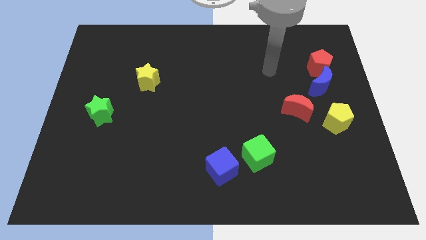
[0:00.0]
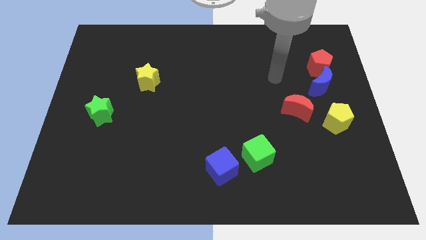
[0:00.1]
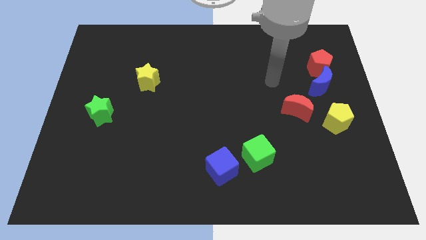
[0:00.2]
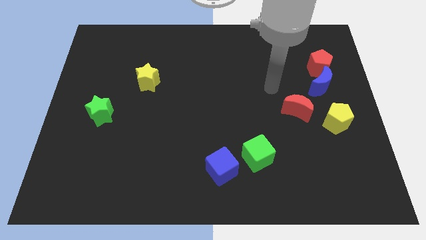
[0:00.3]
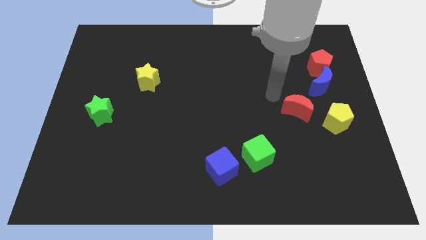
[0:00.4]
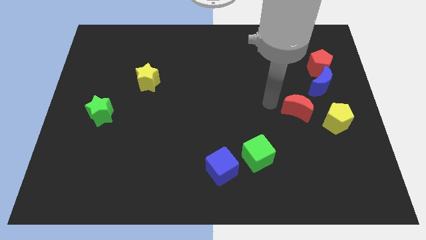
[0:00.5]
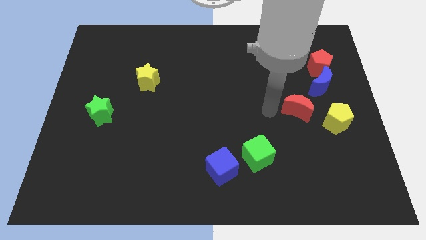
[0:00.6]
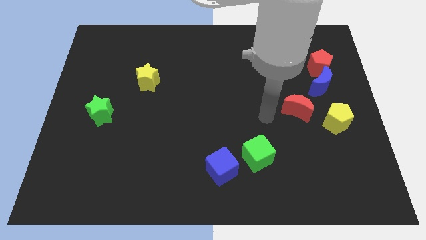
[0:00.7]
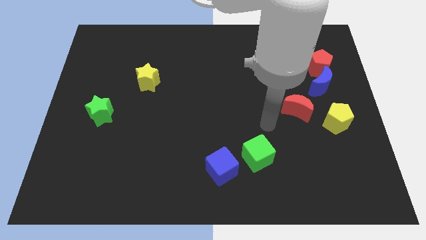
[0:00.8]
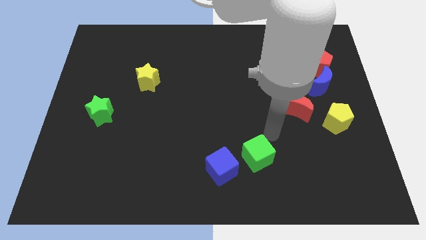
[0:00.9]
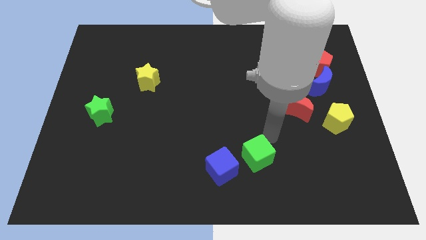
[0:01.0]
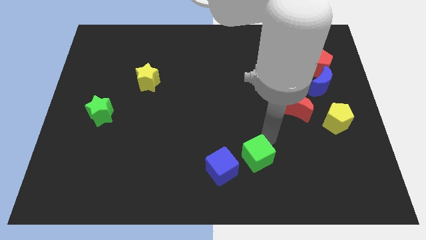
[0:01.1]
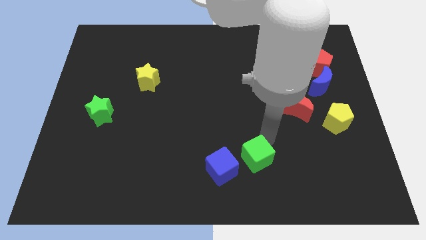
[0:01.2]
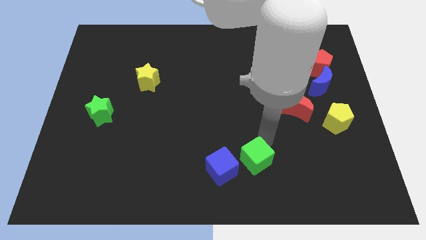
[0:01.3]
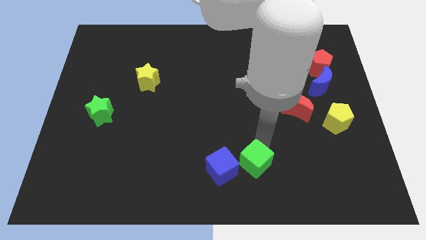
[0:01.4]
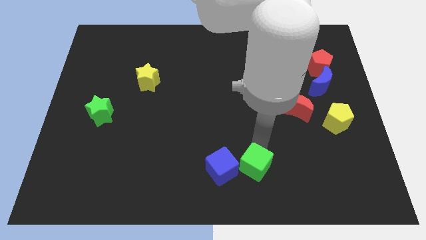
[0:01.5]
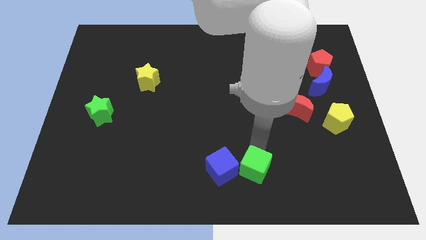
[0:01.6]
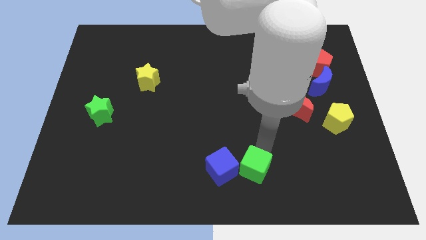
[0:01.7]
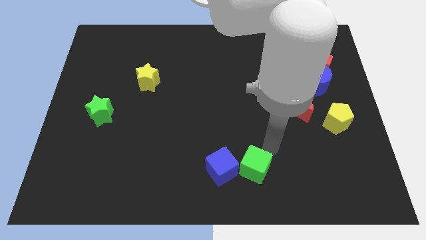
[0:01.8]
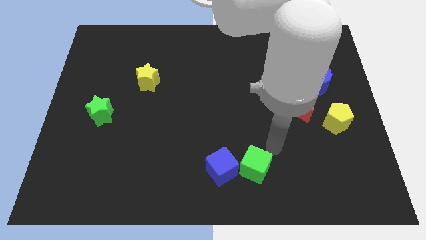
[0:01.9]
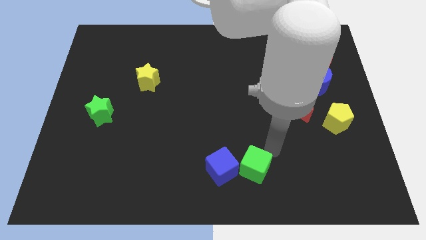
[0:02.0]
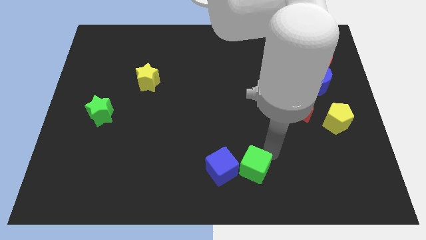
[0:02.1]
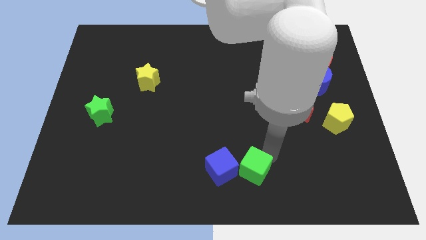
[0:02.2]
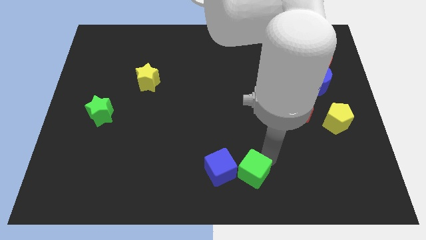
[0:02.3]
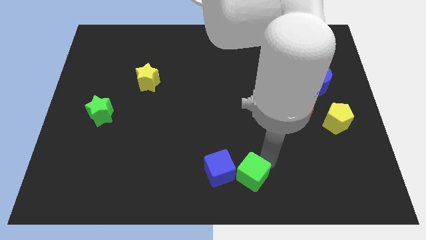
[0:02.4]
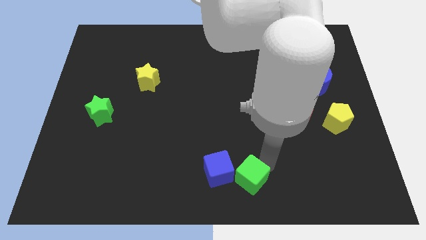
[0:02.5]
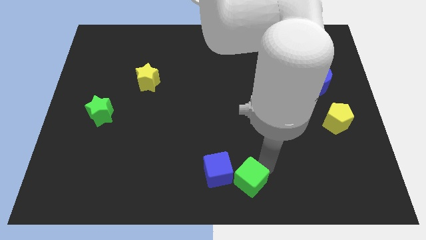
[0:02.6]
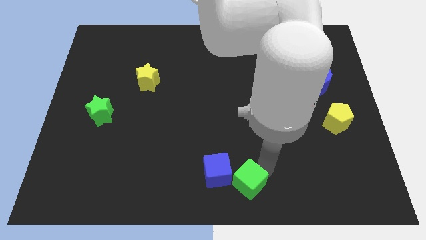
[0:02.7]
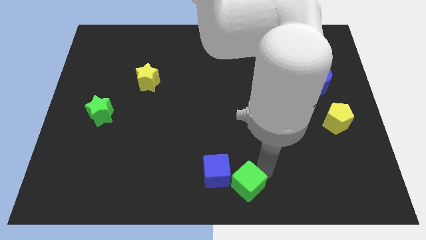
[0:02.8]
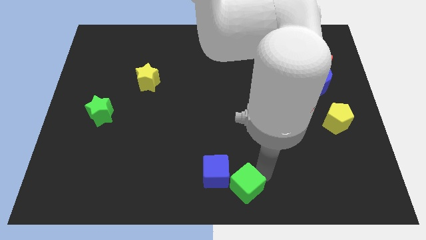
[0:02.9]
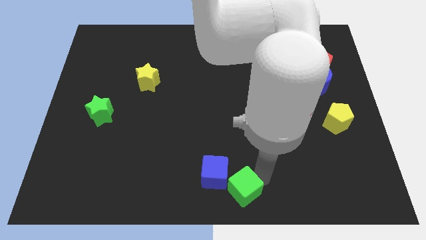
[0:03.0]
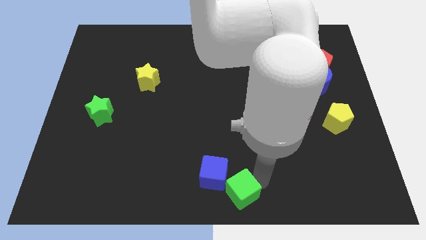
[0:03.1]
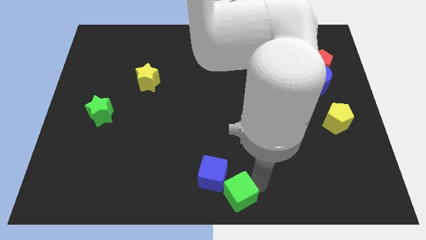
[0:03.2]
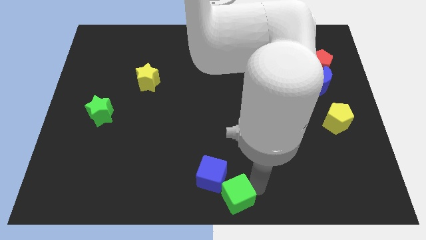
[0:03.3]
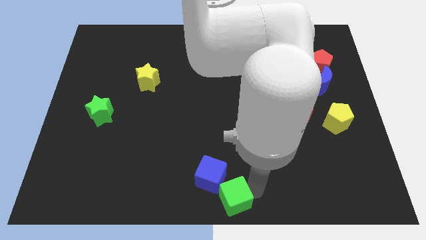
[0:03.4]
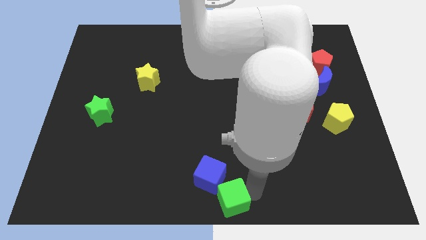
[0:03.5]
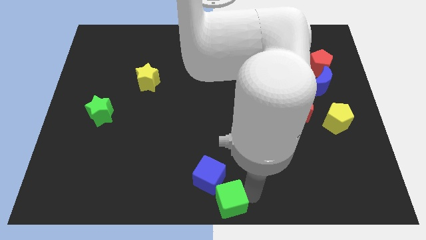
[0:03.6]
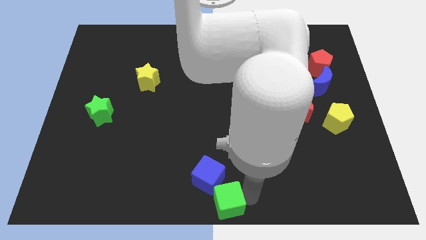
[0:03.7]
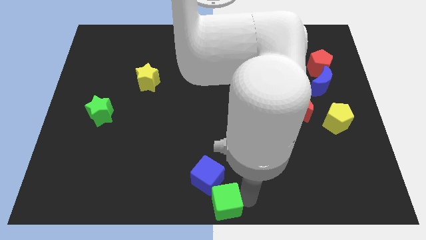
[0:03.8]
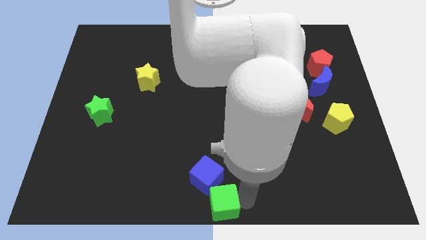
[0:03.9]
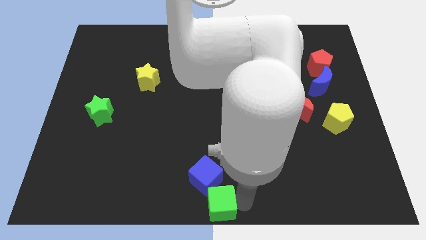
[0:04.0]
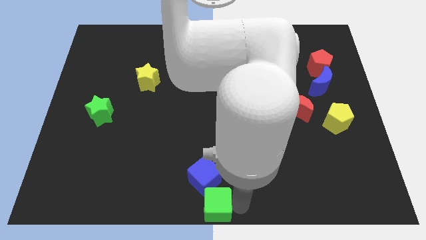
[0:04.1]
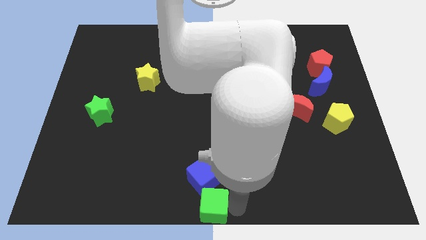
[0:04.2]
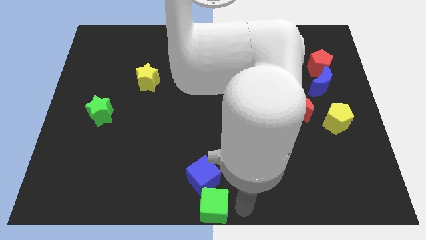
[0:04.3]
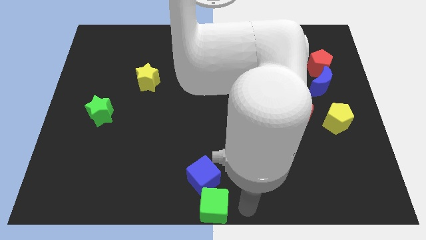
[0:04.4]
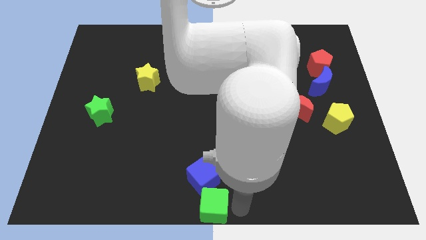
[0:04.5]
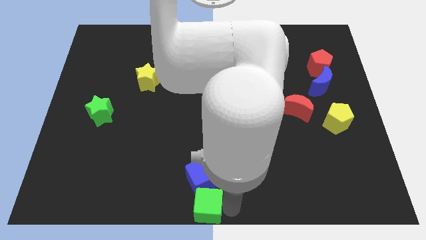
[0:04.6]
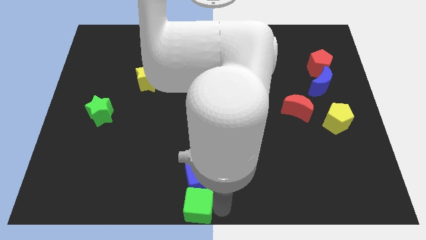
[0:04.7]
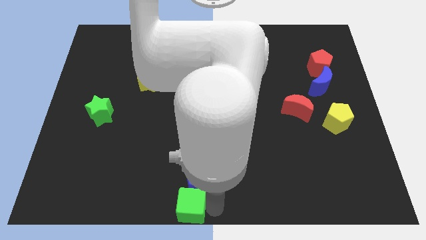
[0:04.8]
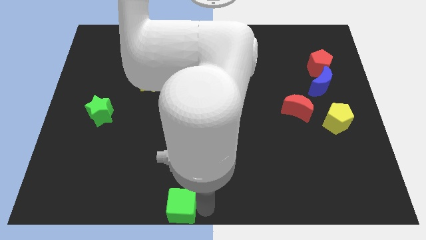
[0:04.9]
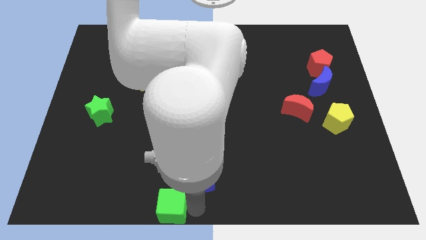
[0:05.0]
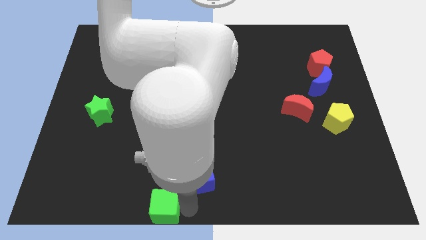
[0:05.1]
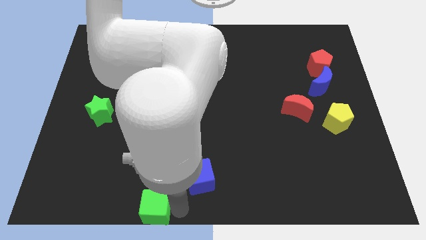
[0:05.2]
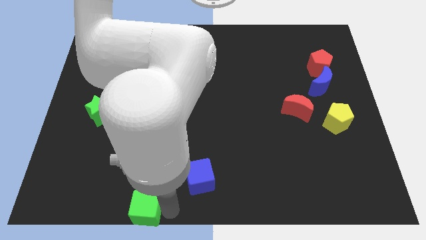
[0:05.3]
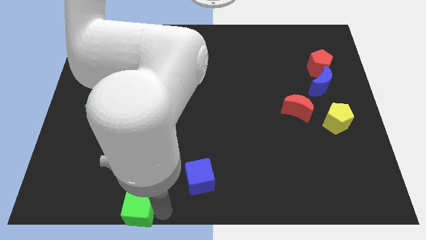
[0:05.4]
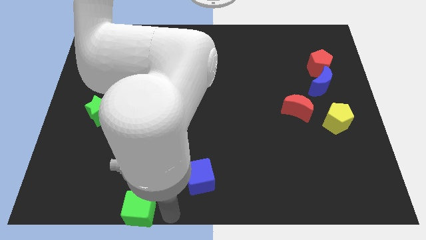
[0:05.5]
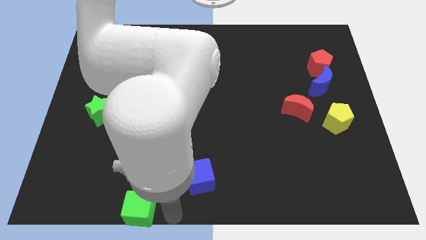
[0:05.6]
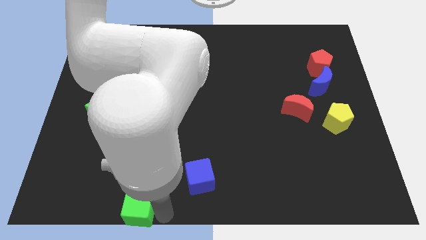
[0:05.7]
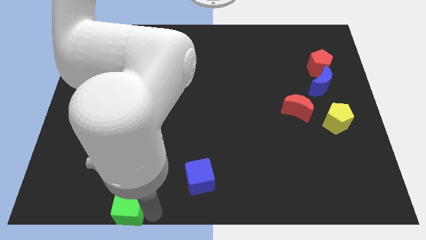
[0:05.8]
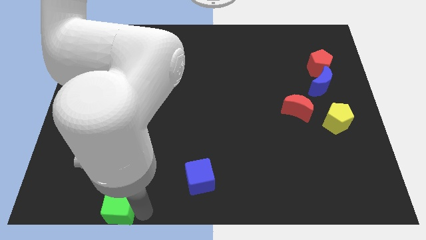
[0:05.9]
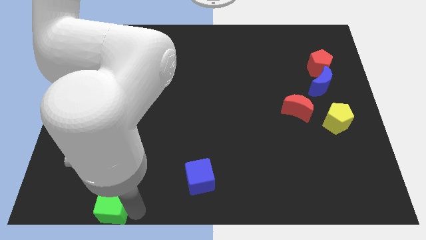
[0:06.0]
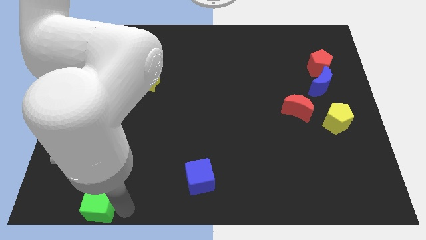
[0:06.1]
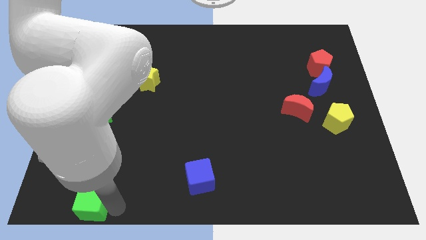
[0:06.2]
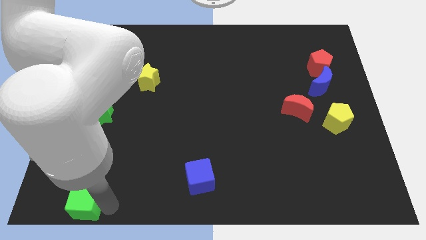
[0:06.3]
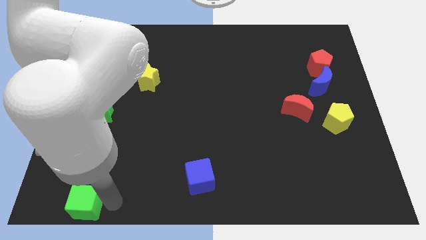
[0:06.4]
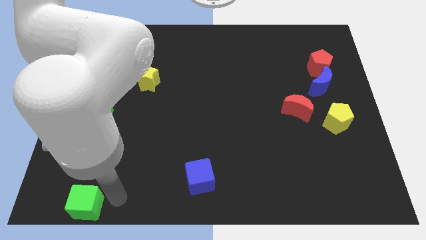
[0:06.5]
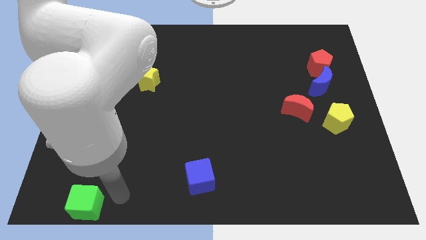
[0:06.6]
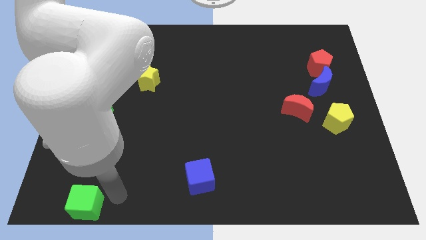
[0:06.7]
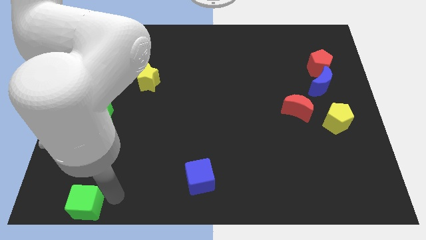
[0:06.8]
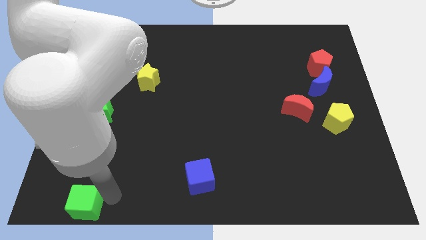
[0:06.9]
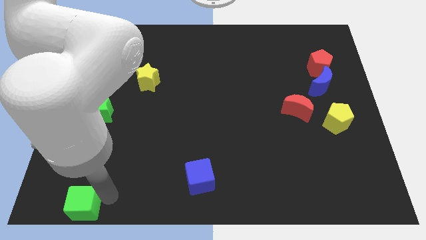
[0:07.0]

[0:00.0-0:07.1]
move the green cube to the bottom left corner
